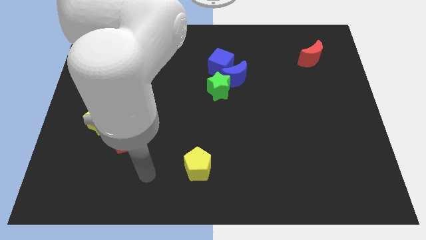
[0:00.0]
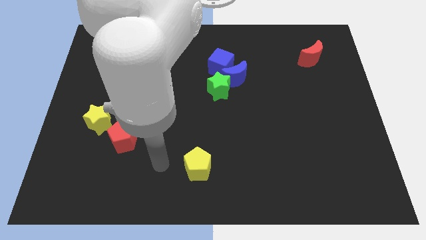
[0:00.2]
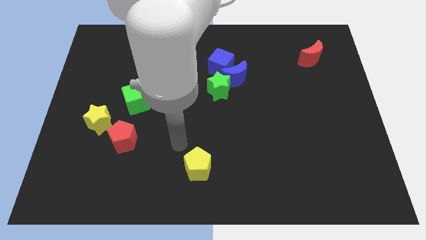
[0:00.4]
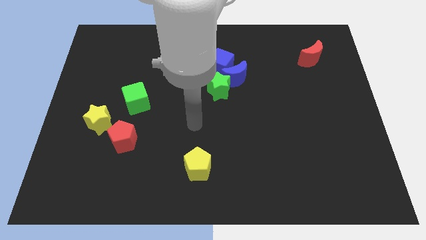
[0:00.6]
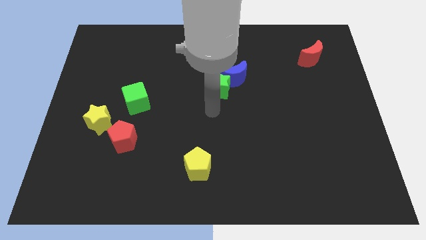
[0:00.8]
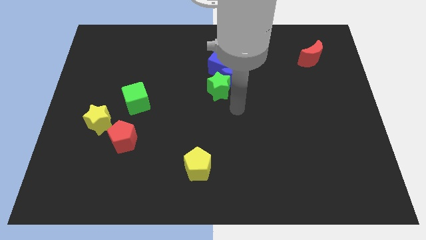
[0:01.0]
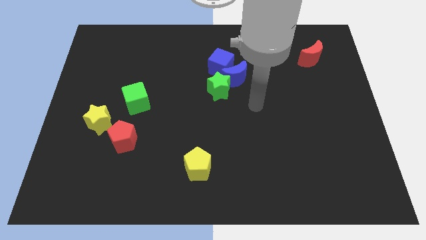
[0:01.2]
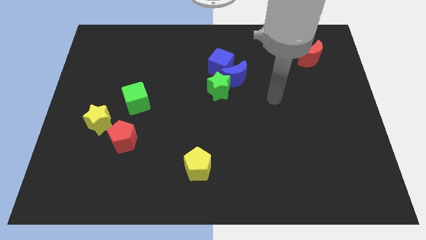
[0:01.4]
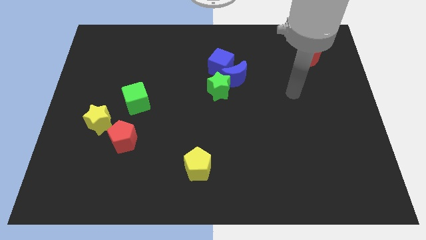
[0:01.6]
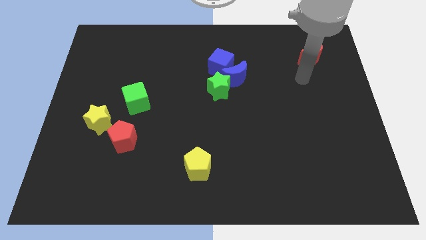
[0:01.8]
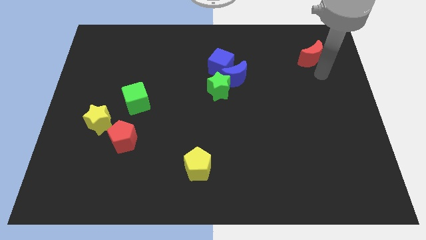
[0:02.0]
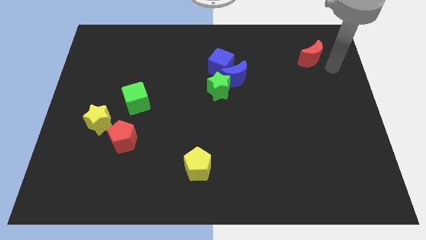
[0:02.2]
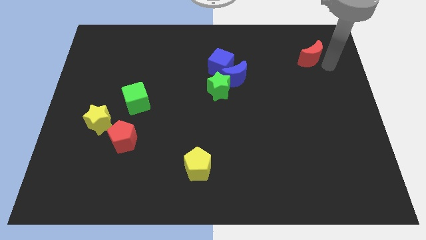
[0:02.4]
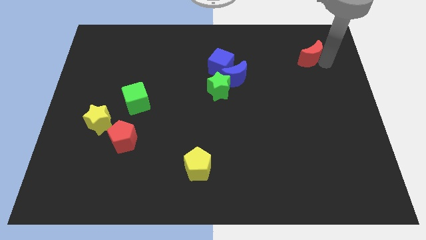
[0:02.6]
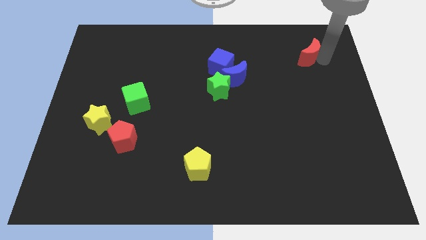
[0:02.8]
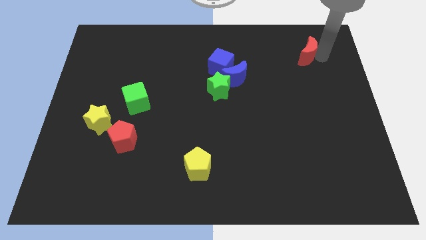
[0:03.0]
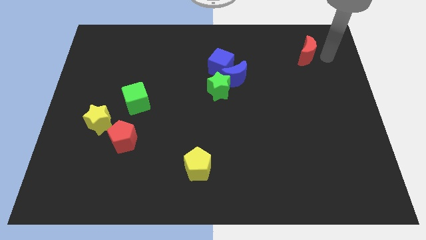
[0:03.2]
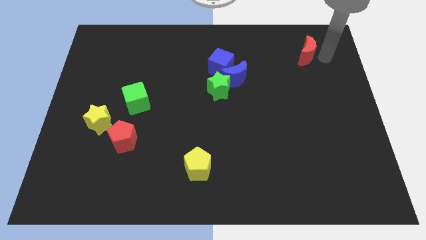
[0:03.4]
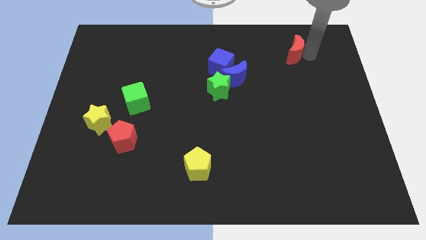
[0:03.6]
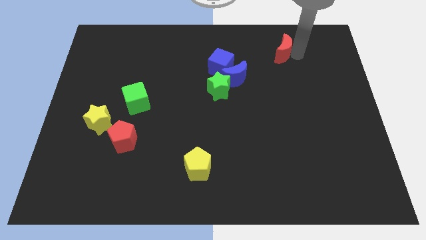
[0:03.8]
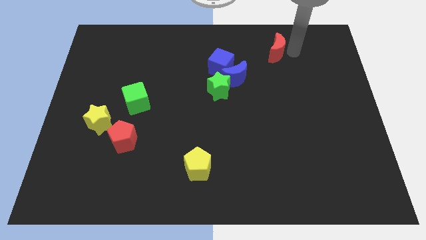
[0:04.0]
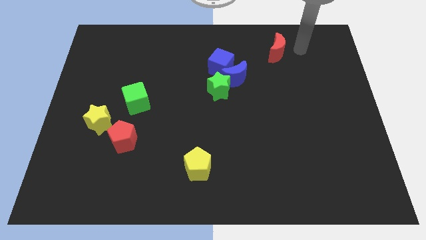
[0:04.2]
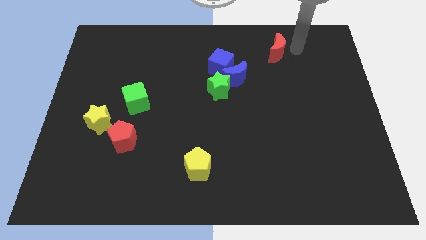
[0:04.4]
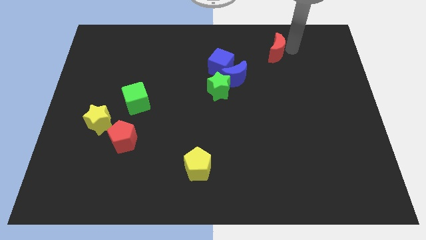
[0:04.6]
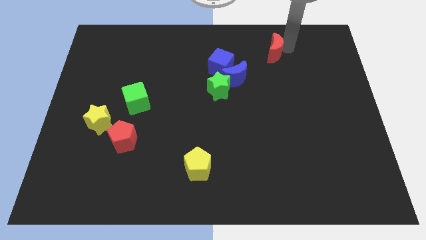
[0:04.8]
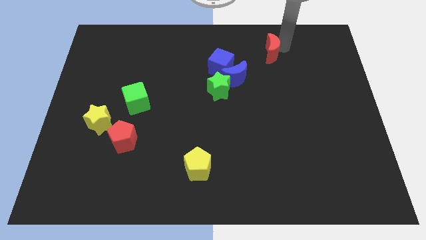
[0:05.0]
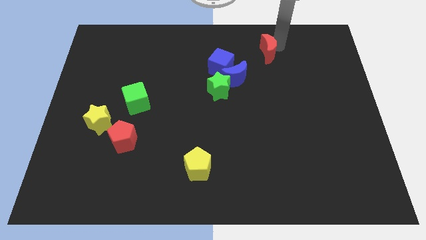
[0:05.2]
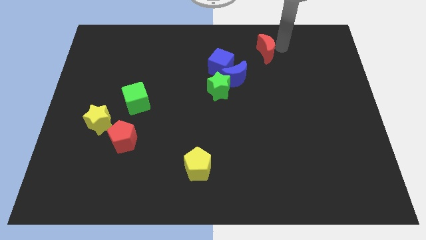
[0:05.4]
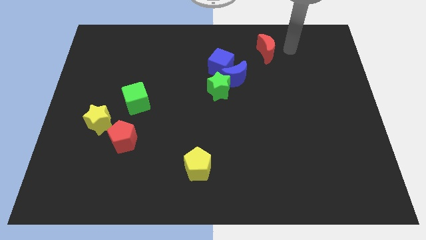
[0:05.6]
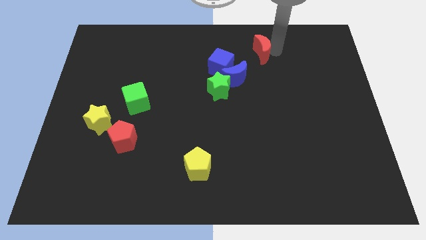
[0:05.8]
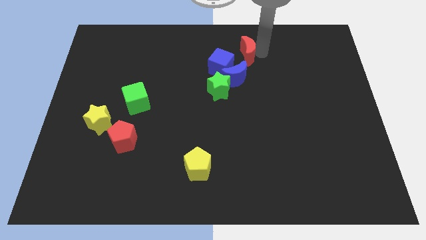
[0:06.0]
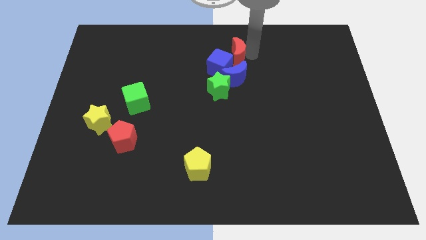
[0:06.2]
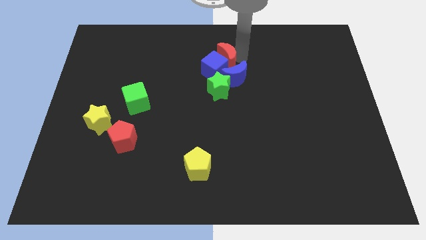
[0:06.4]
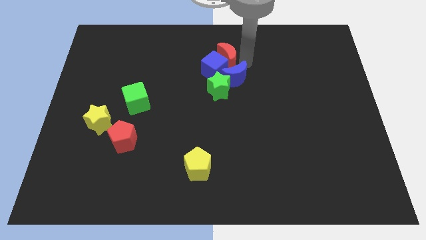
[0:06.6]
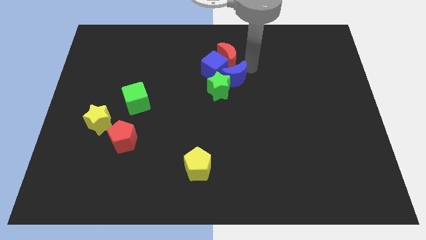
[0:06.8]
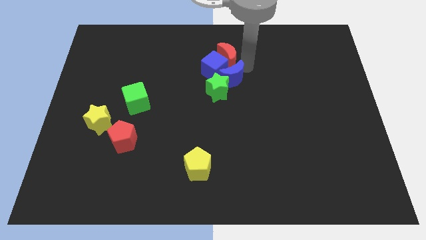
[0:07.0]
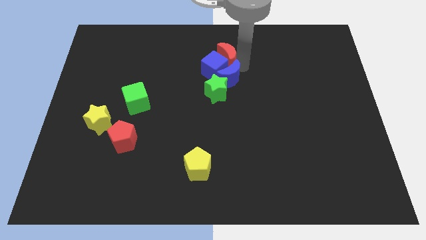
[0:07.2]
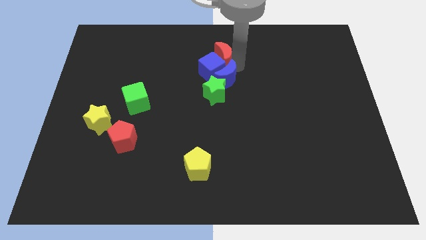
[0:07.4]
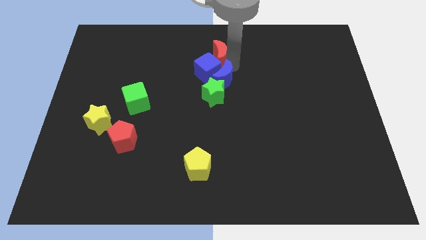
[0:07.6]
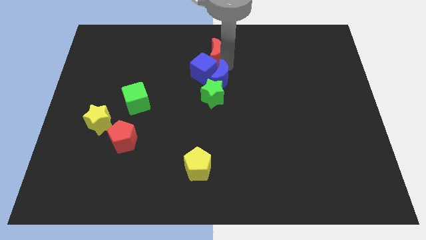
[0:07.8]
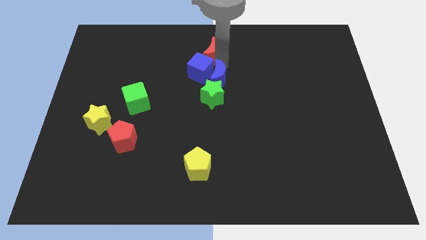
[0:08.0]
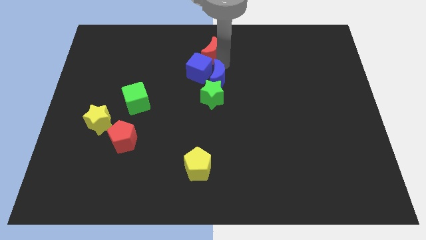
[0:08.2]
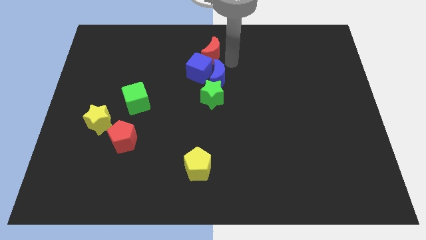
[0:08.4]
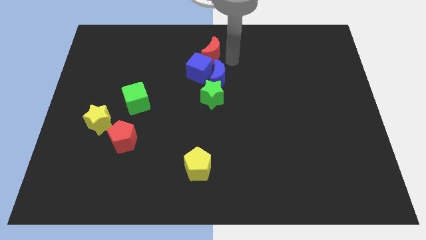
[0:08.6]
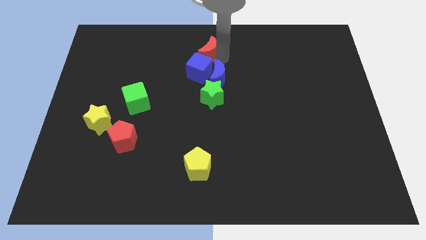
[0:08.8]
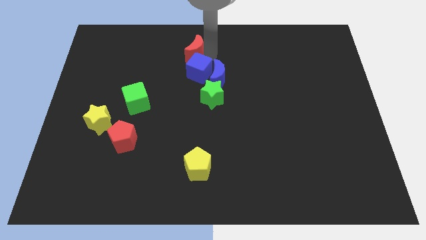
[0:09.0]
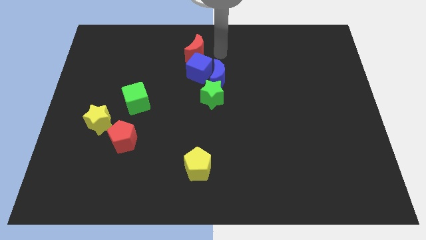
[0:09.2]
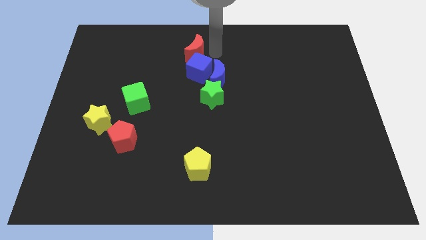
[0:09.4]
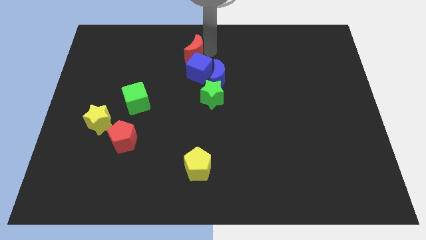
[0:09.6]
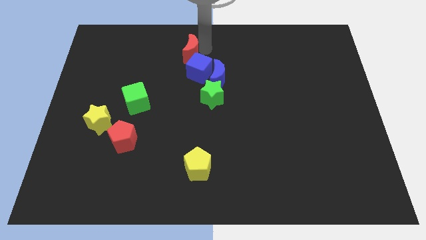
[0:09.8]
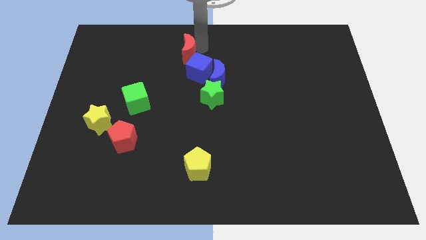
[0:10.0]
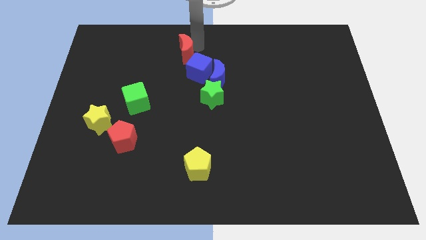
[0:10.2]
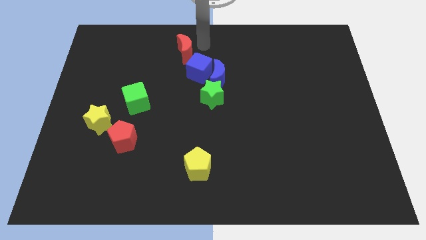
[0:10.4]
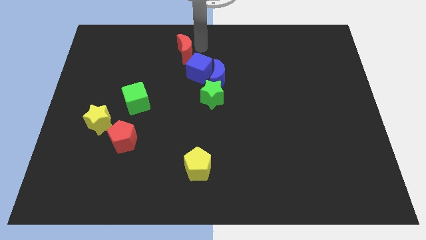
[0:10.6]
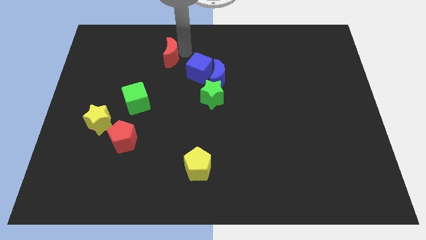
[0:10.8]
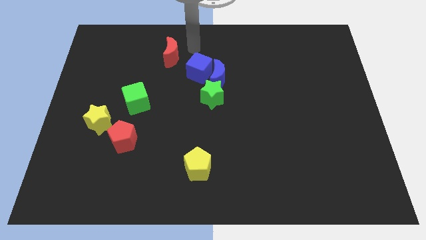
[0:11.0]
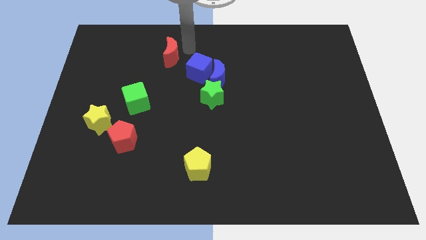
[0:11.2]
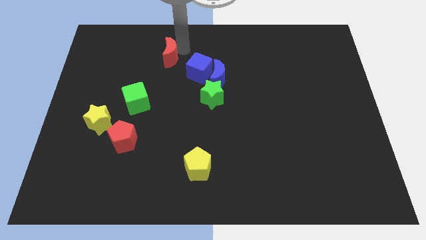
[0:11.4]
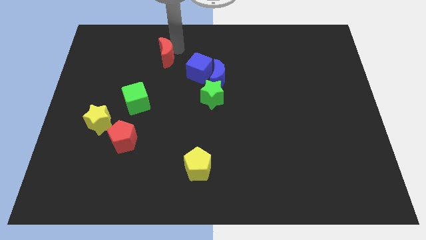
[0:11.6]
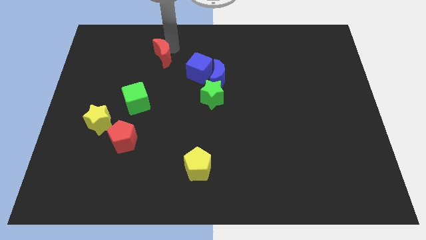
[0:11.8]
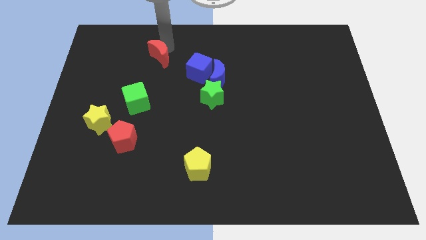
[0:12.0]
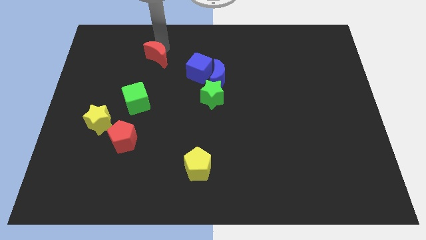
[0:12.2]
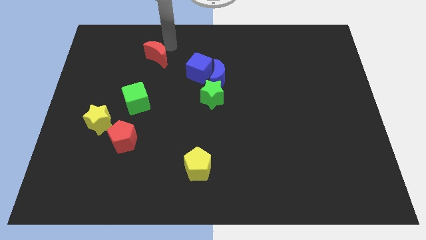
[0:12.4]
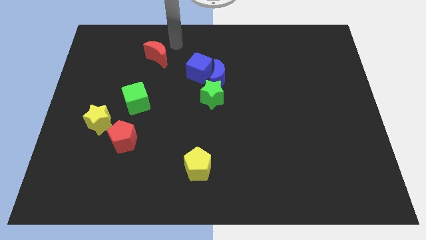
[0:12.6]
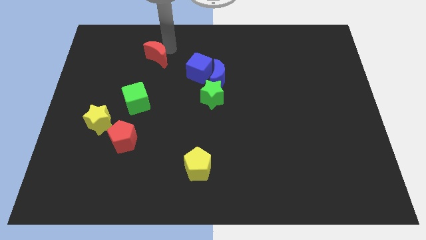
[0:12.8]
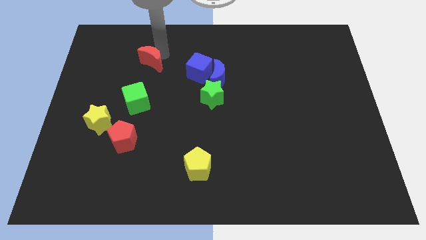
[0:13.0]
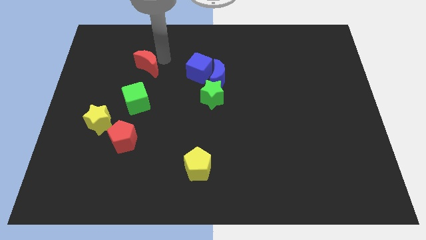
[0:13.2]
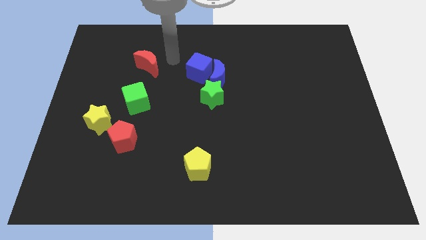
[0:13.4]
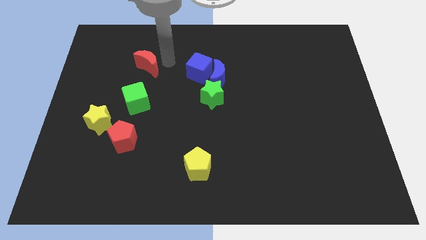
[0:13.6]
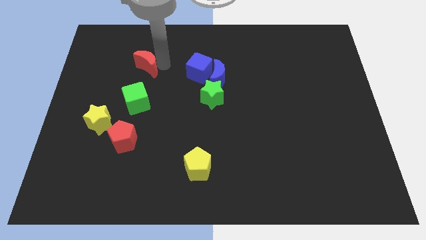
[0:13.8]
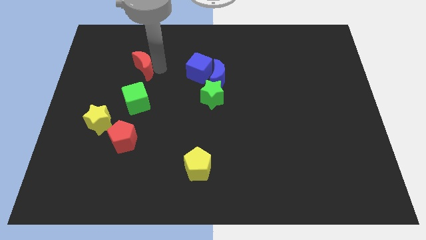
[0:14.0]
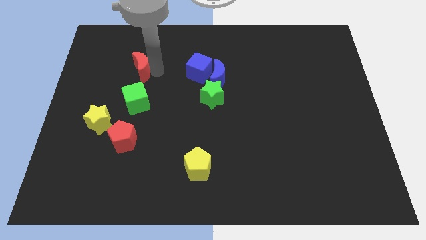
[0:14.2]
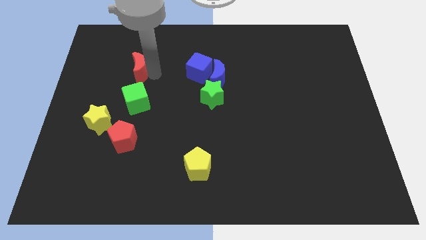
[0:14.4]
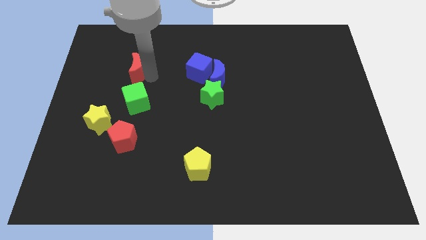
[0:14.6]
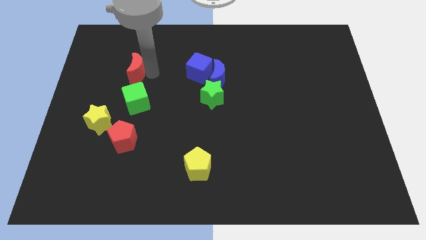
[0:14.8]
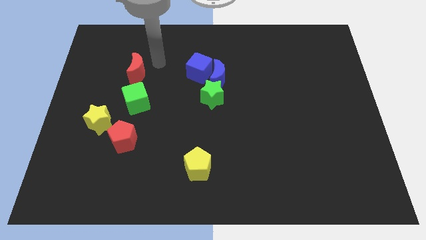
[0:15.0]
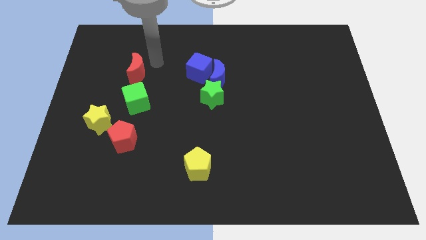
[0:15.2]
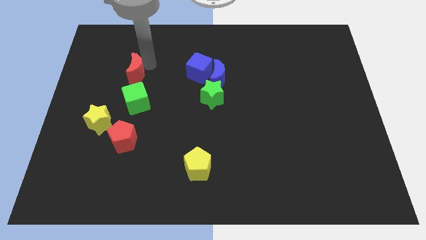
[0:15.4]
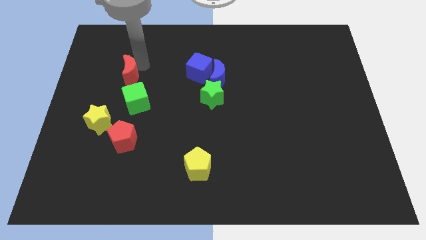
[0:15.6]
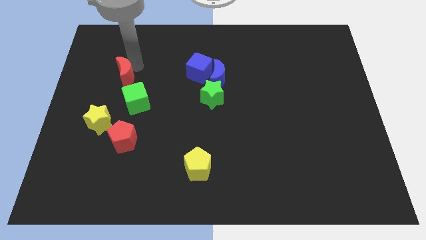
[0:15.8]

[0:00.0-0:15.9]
move the red moon above the yellow star
